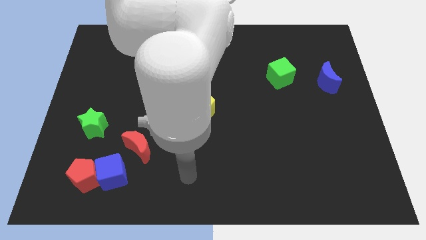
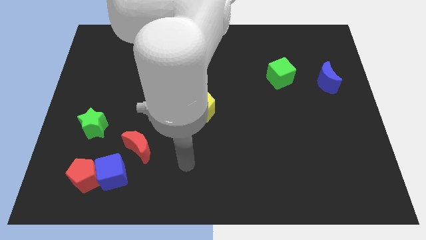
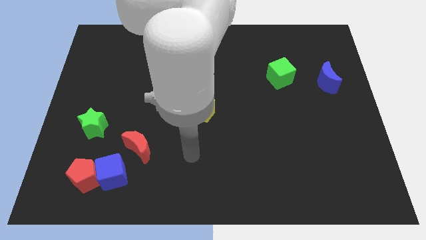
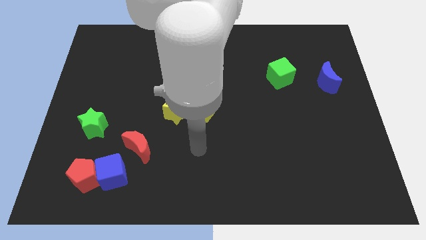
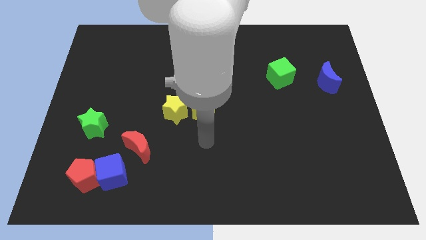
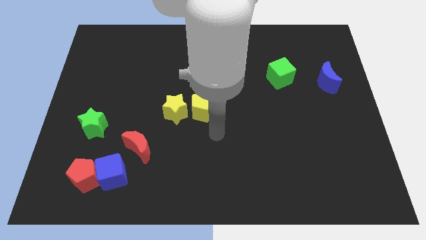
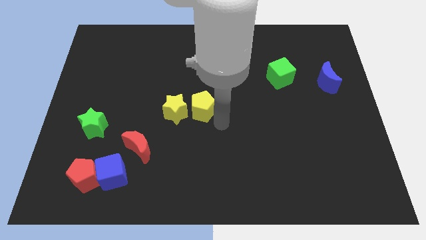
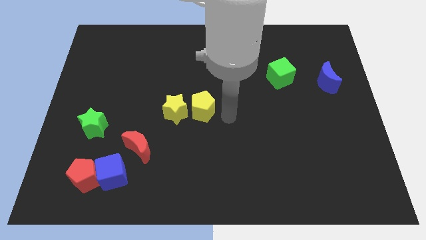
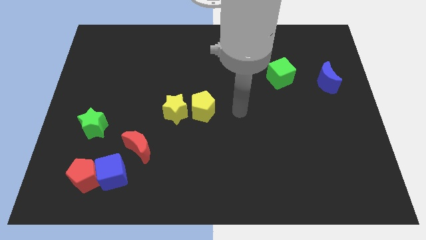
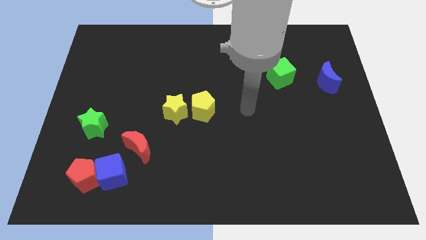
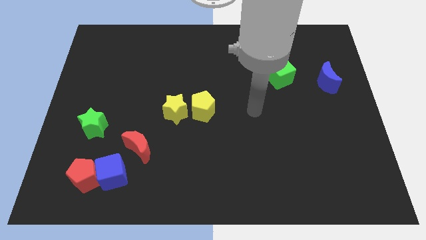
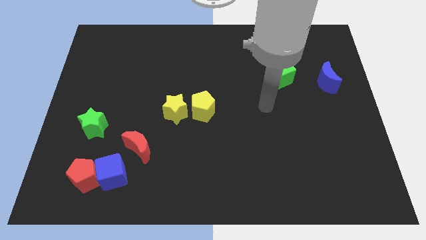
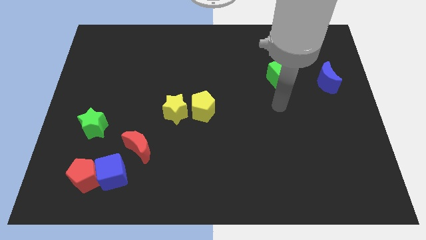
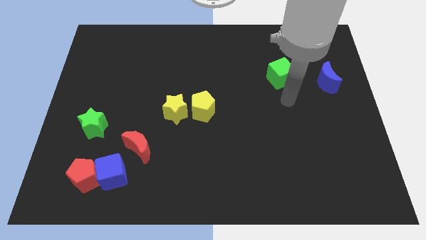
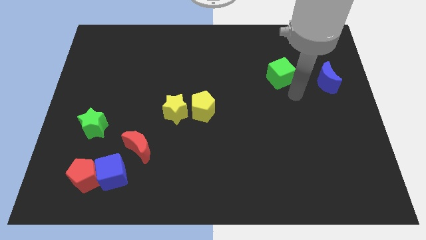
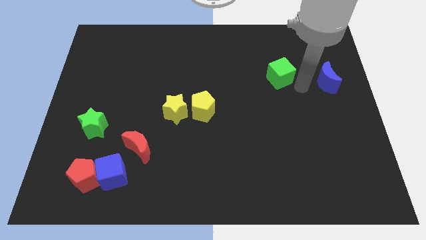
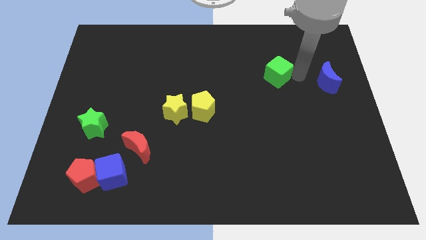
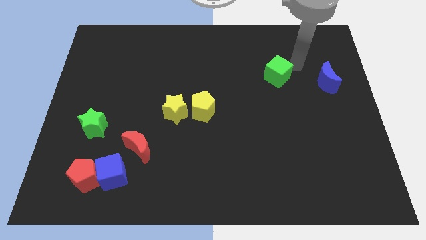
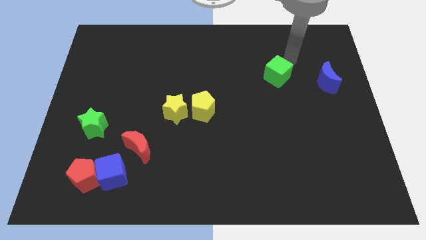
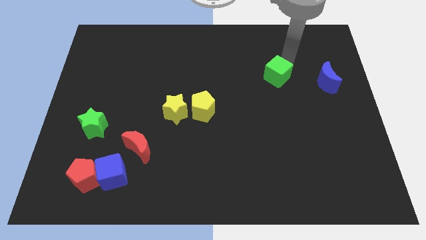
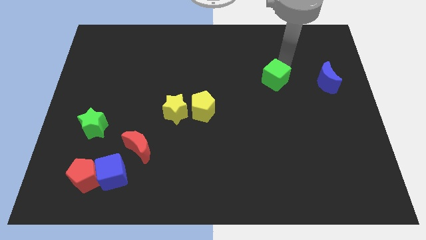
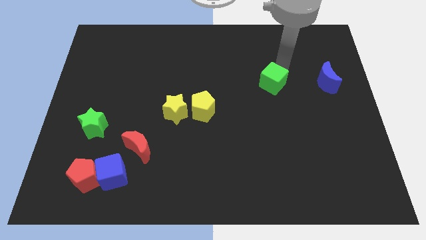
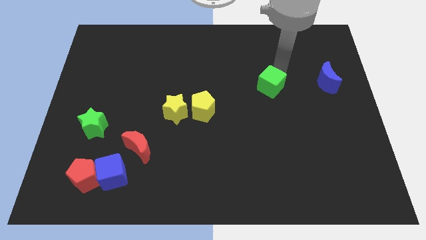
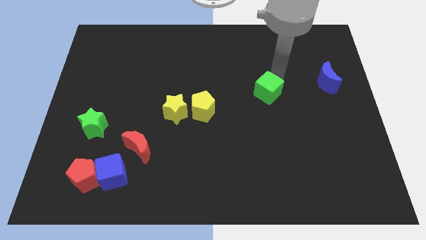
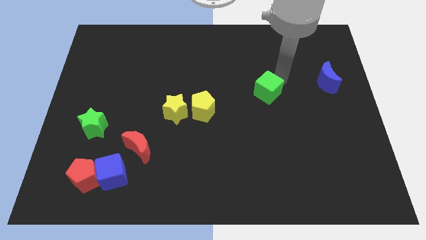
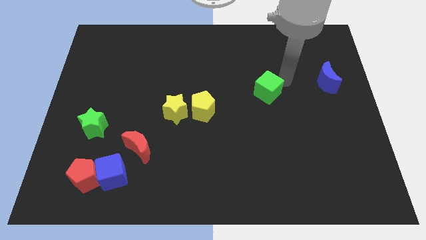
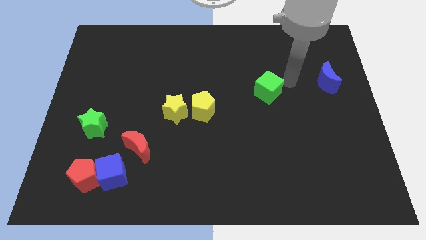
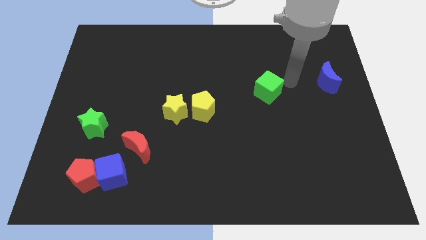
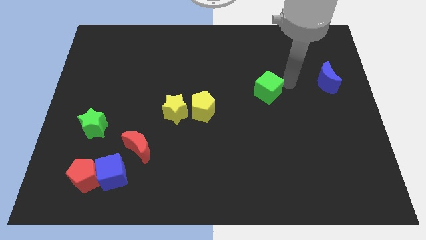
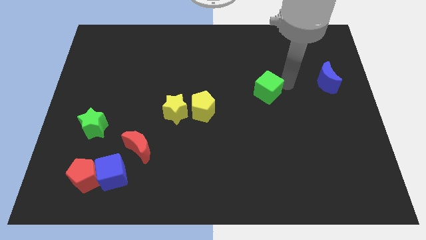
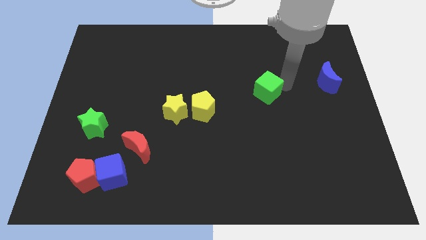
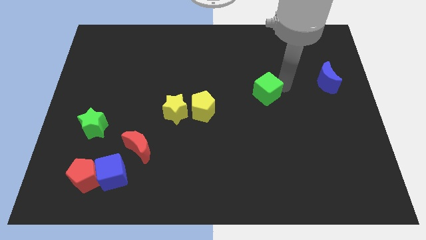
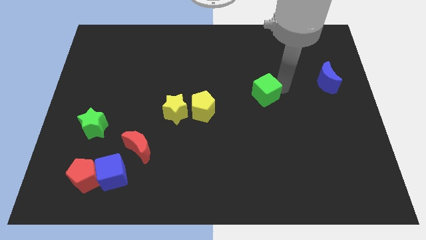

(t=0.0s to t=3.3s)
slide the green cube a bit diagonally downwards and left

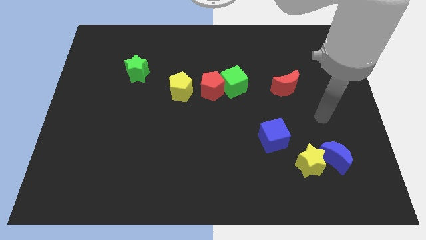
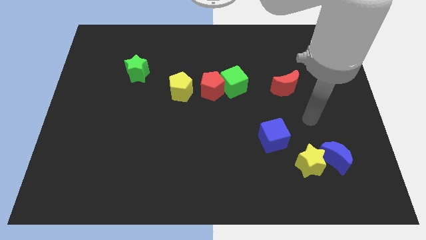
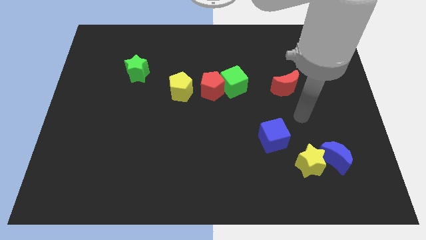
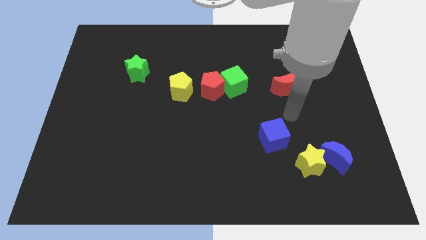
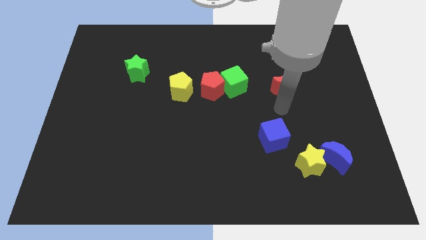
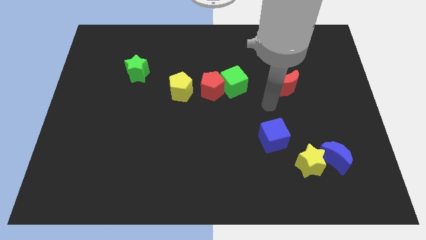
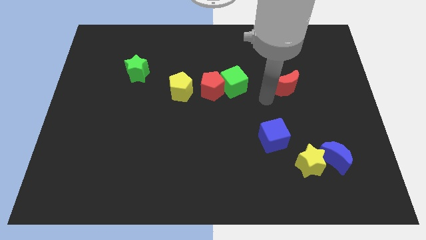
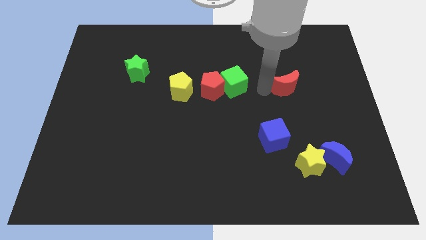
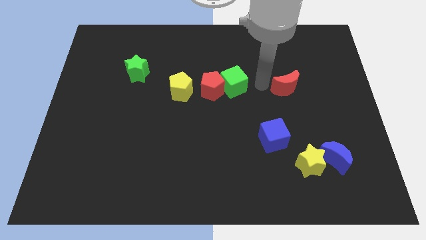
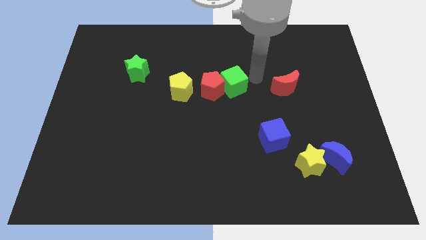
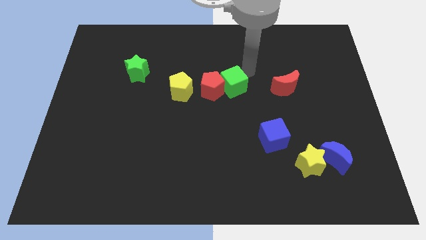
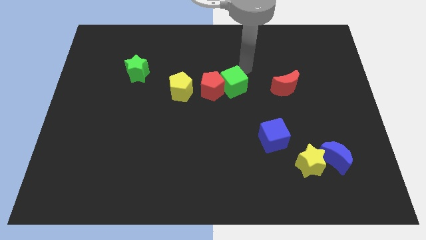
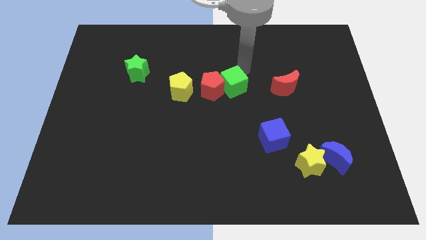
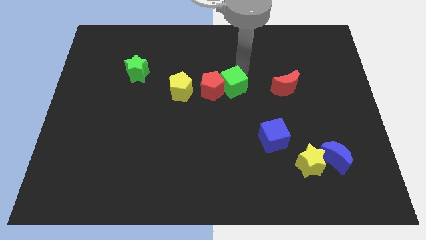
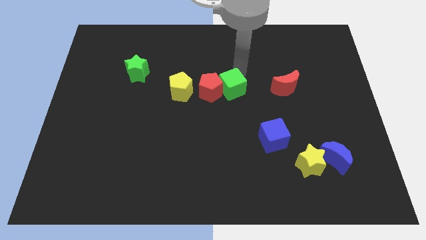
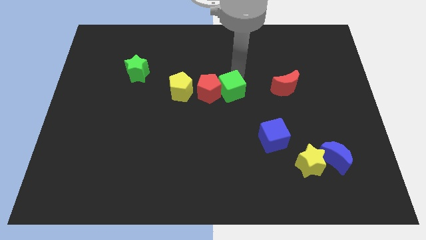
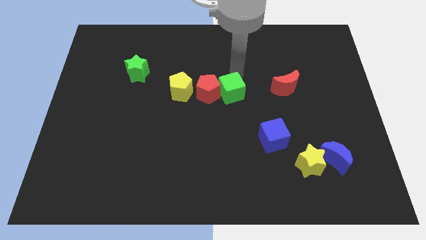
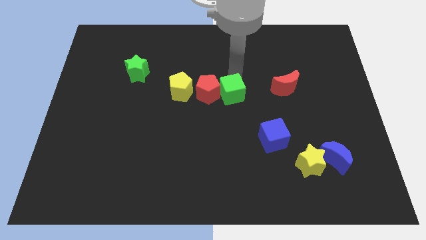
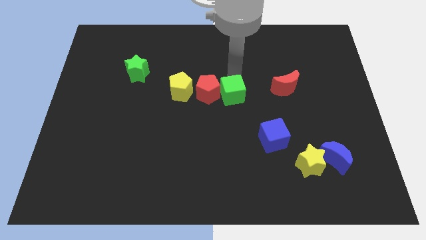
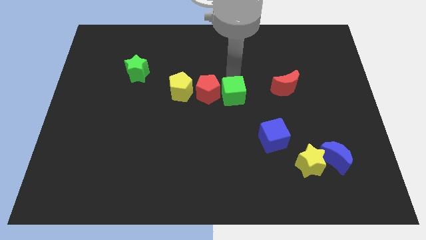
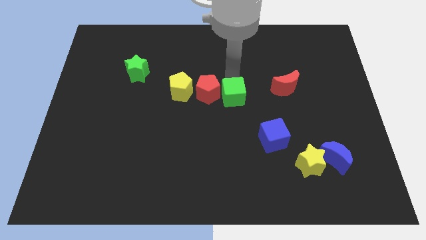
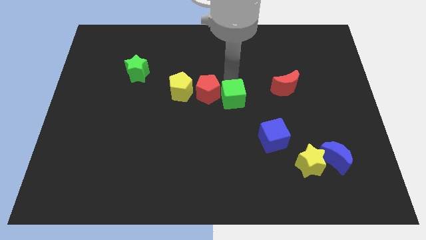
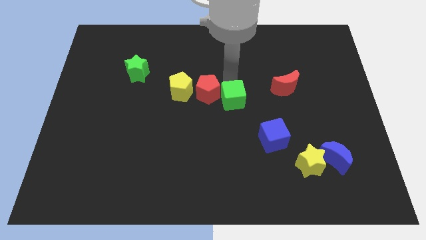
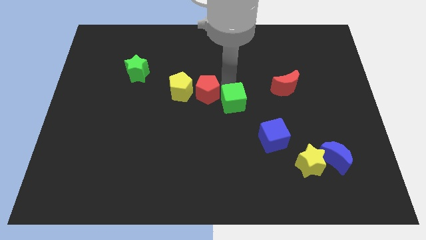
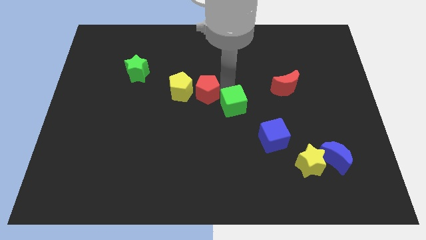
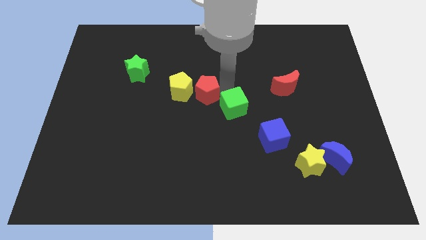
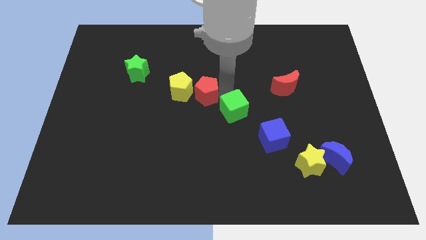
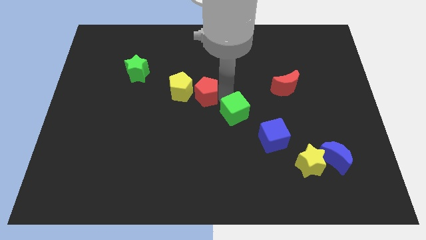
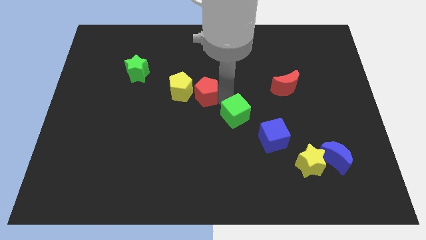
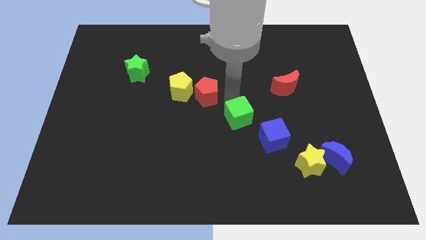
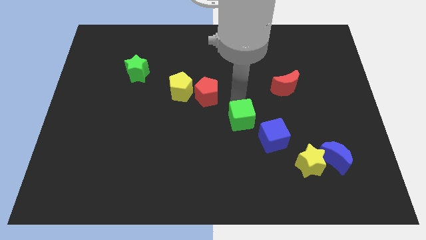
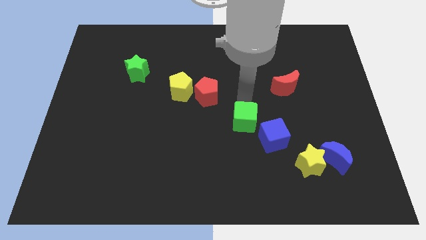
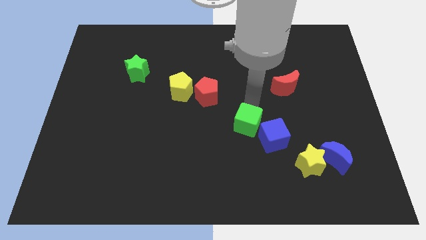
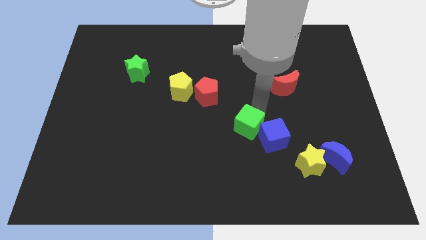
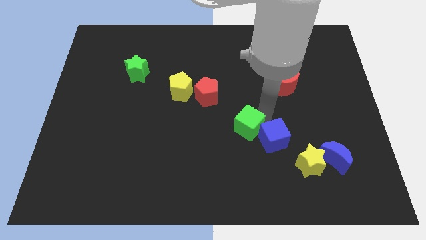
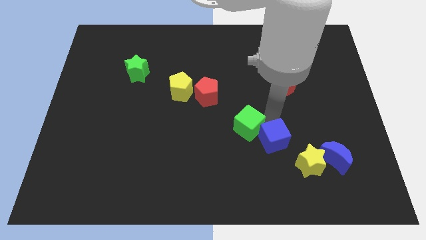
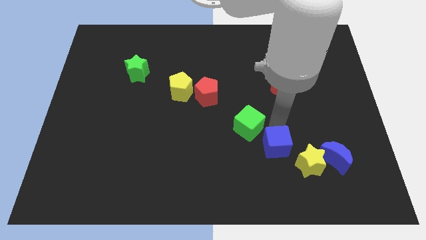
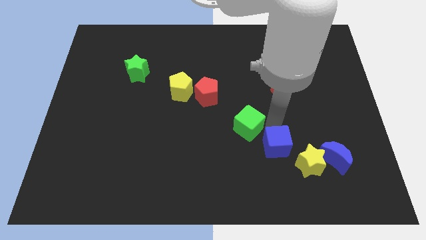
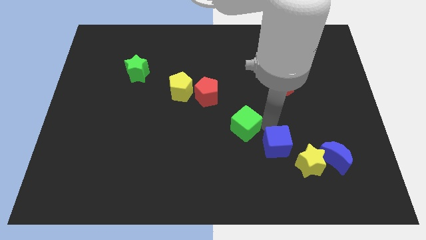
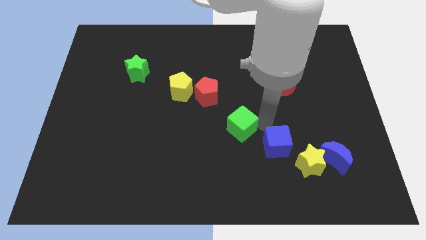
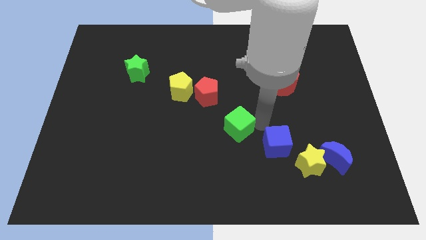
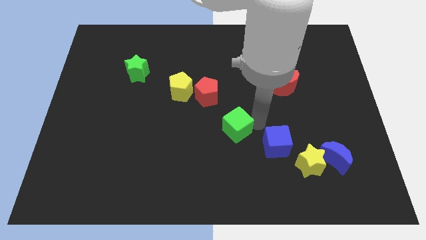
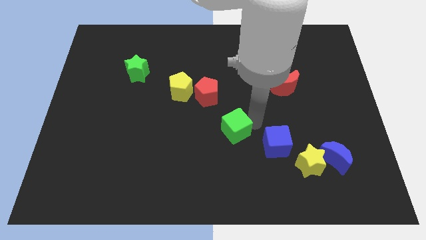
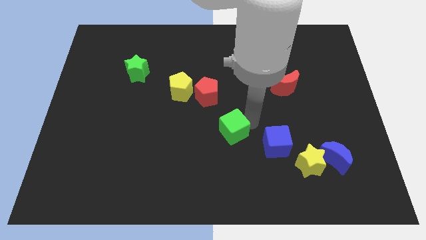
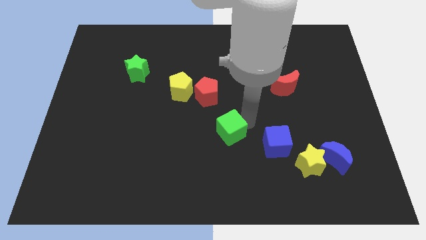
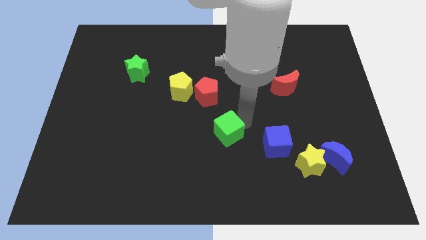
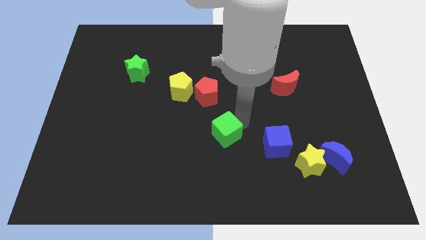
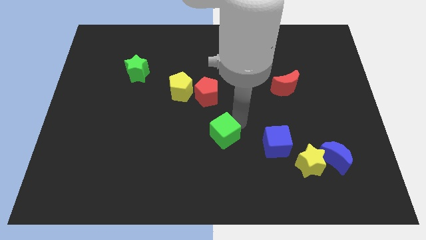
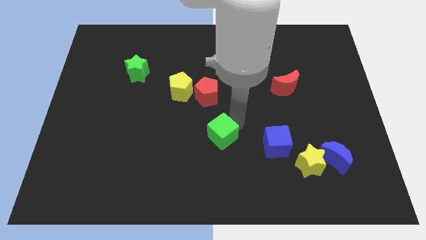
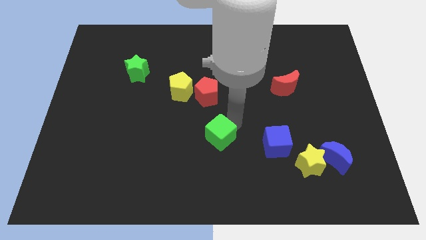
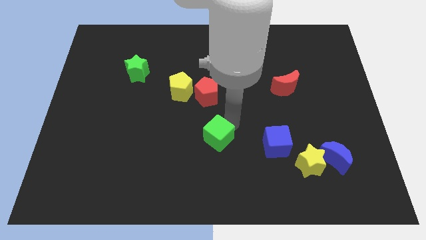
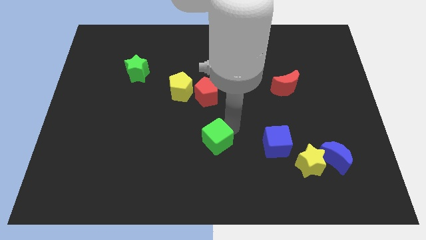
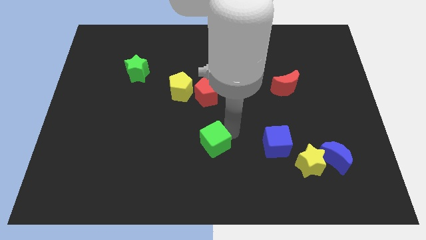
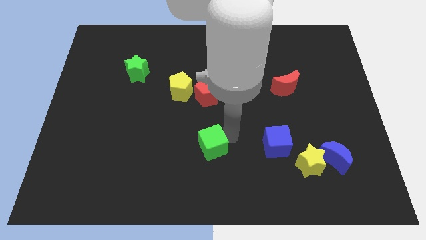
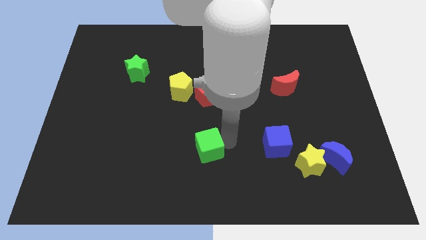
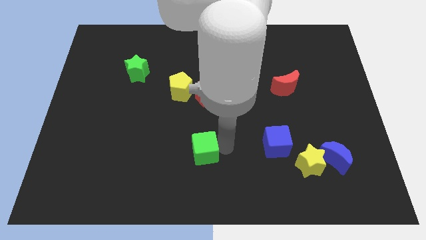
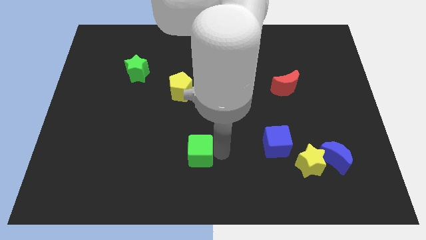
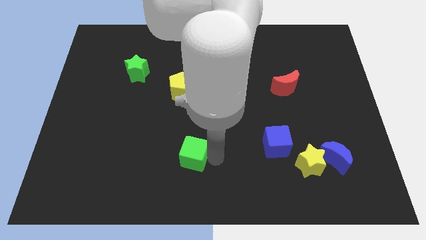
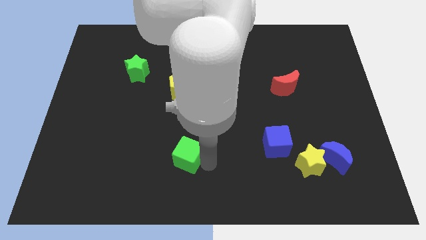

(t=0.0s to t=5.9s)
slide the green cube downwards and to the left
